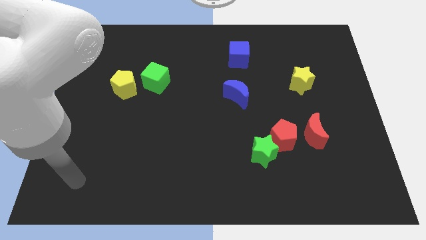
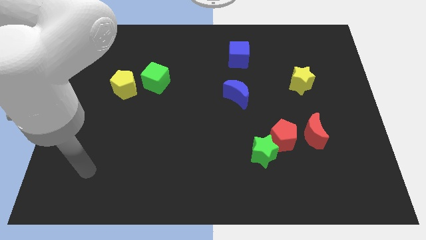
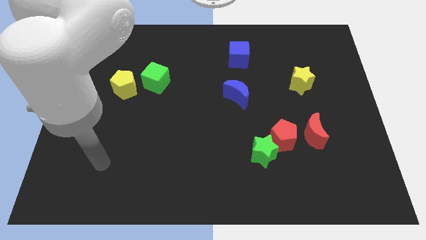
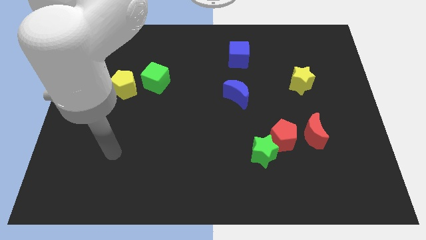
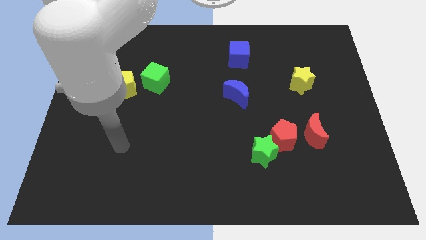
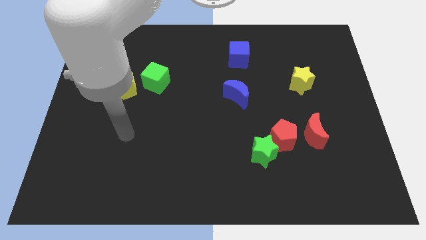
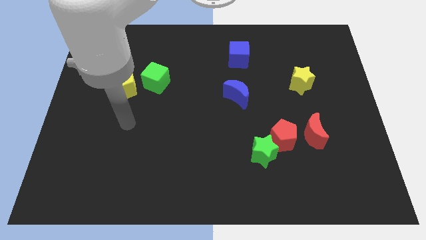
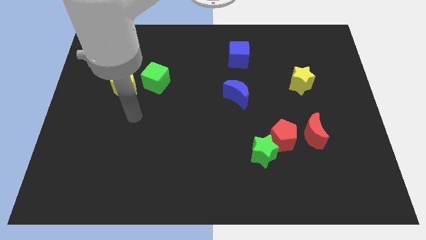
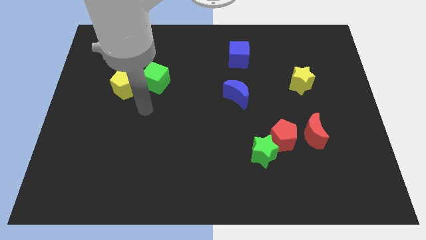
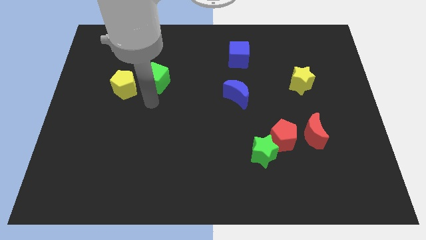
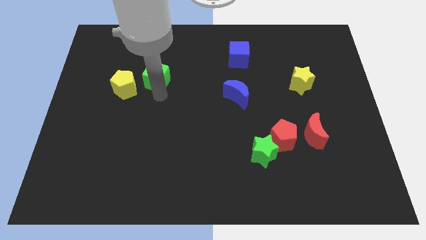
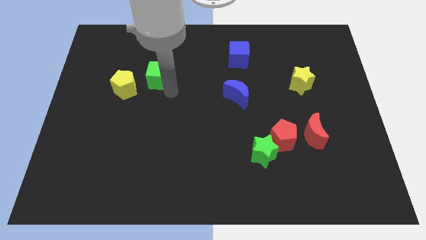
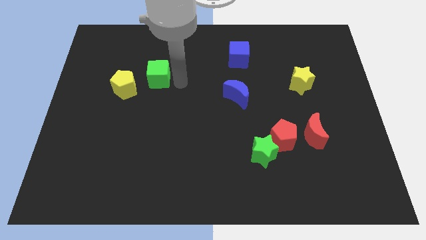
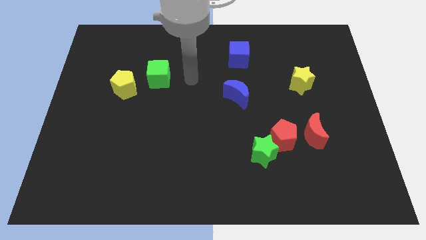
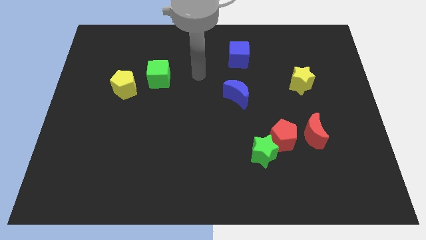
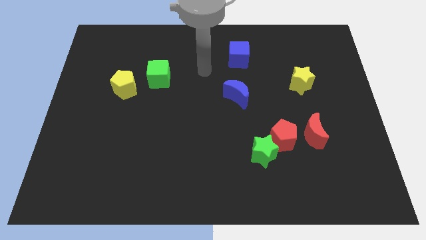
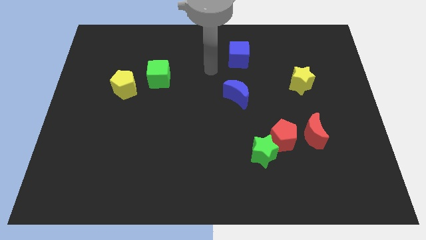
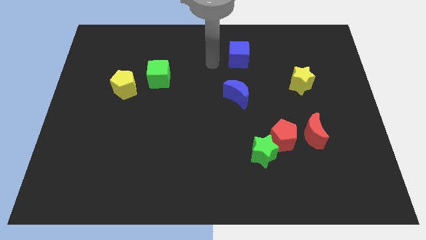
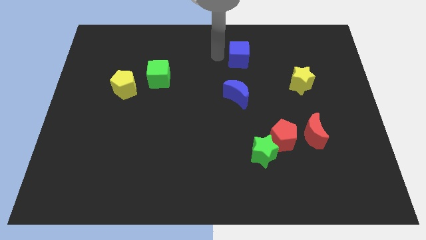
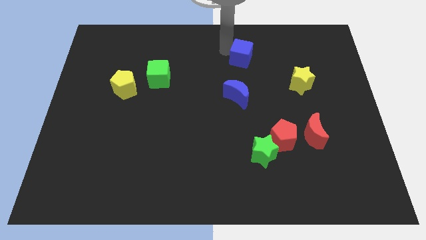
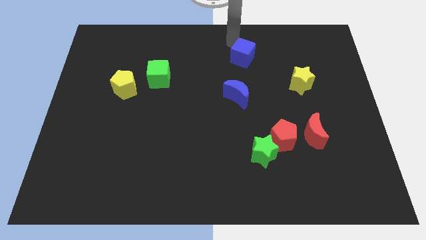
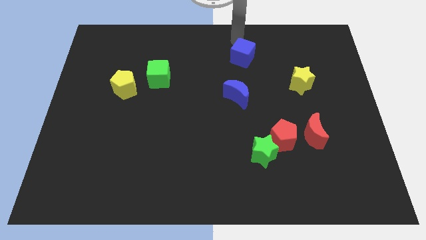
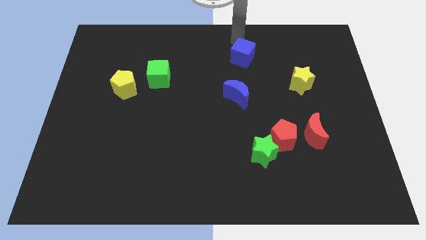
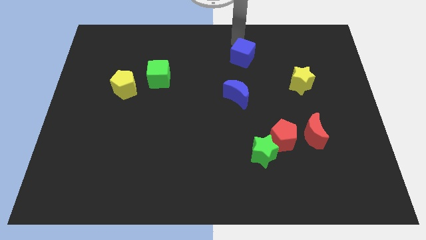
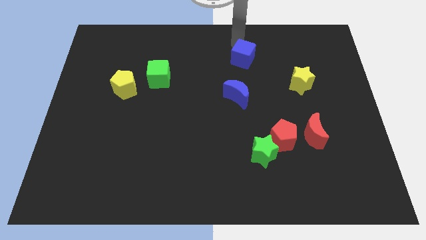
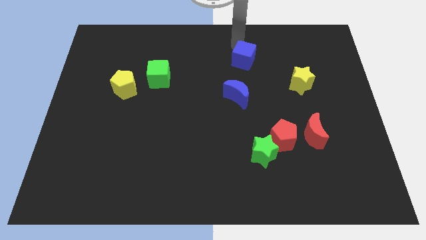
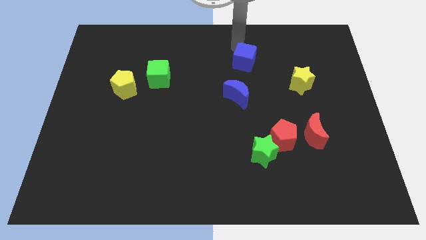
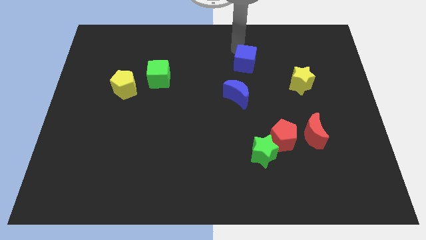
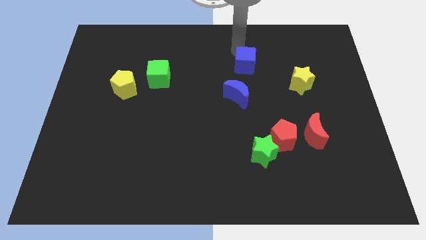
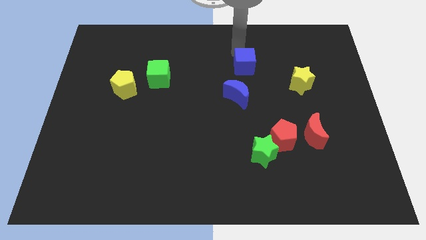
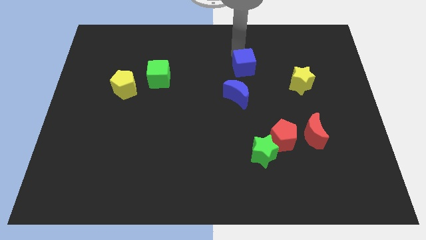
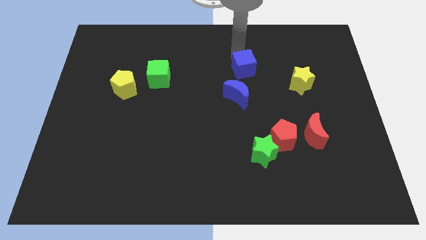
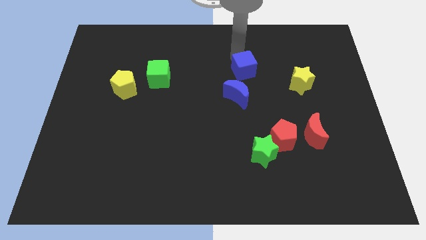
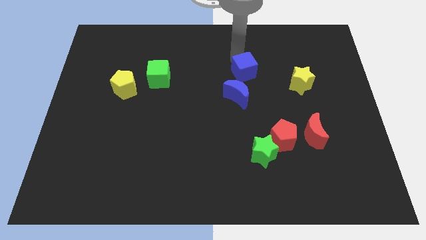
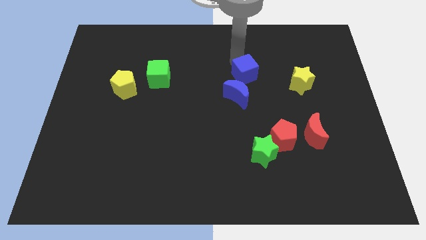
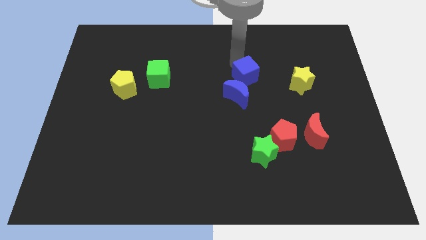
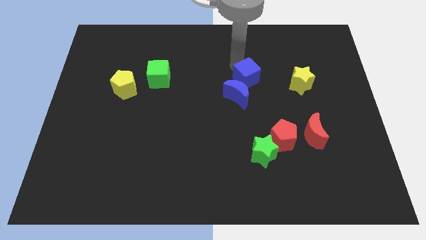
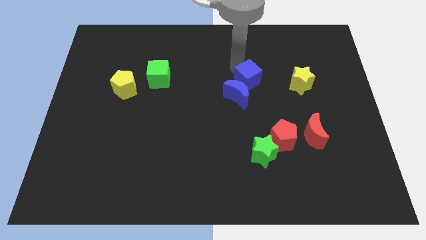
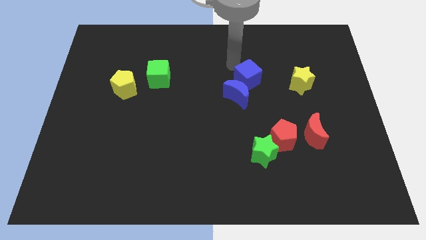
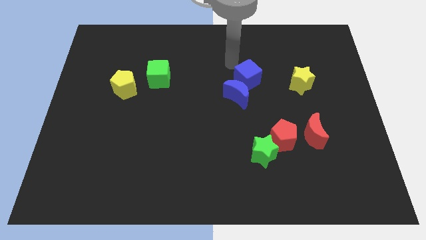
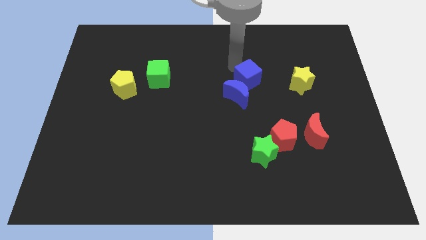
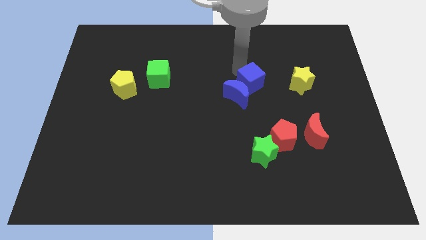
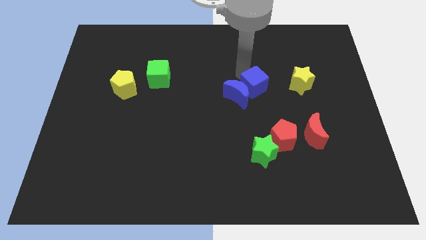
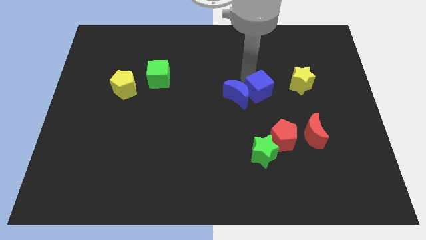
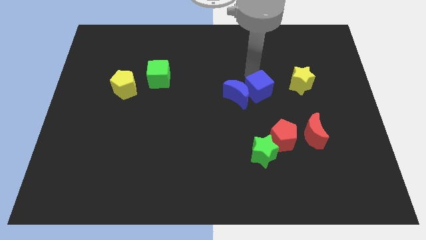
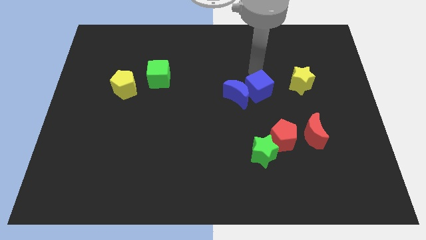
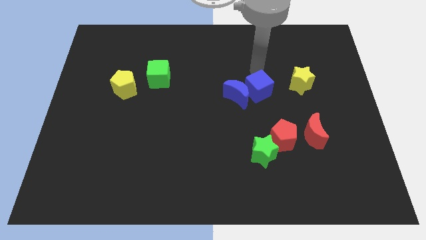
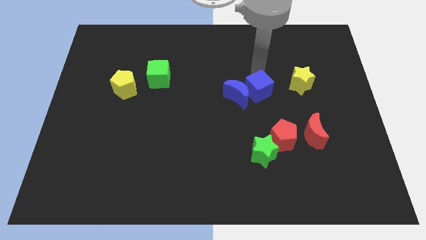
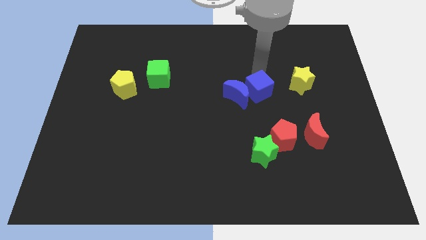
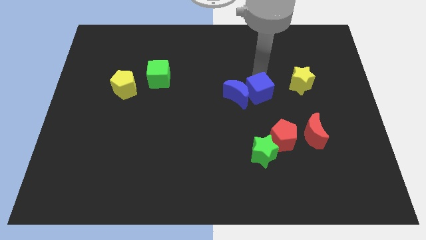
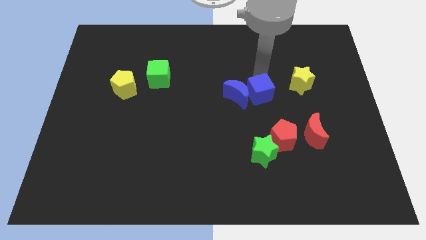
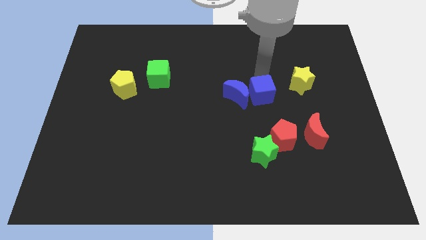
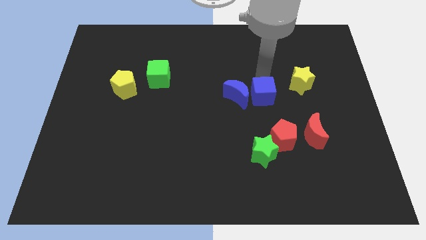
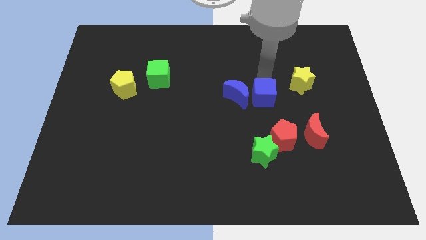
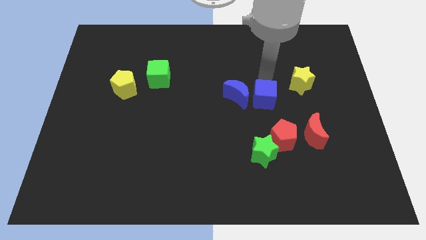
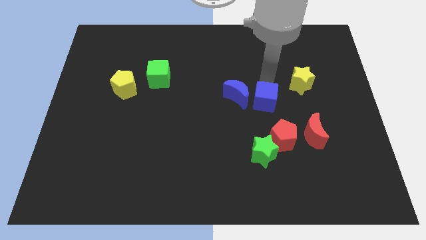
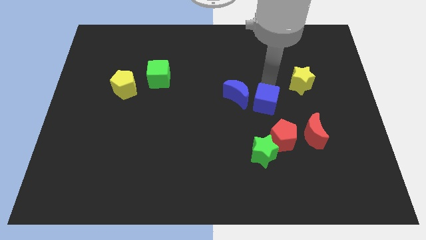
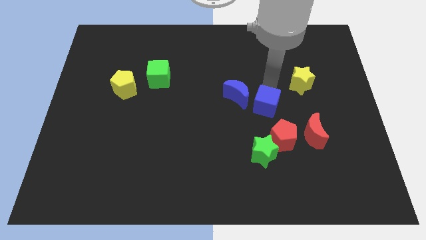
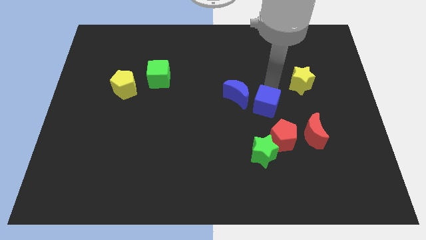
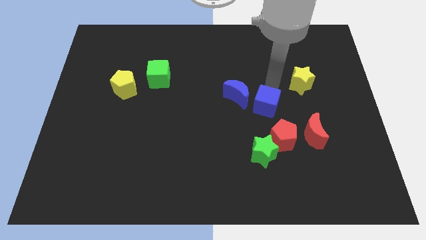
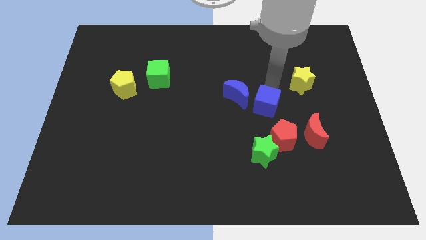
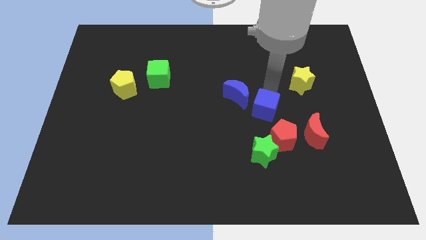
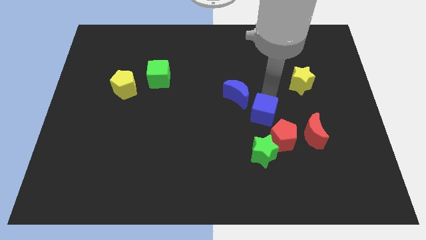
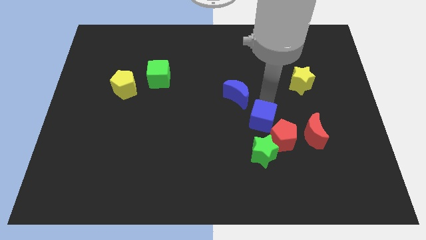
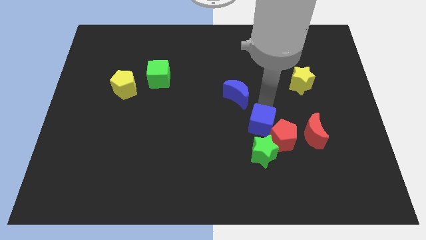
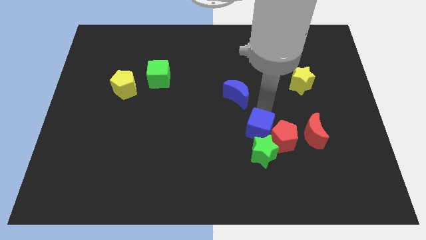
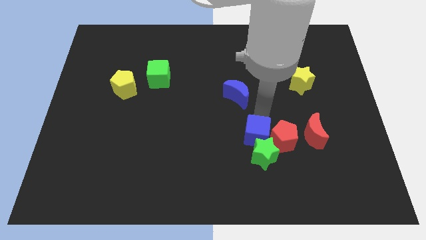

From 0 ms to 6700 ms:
move the blue cube close to the green star

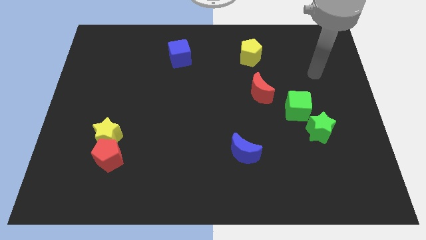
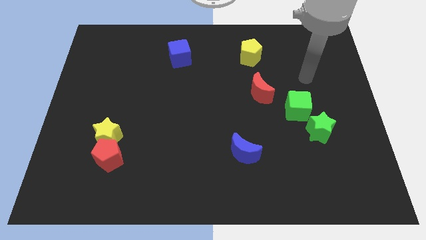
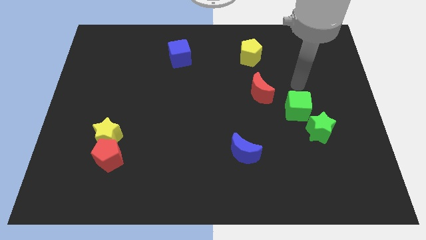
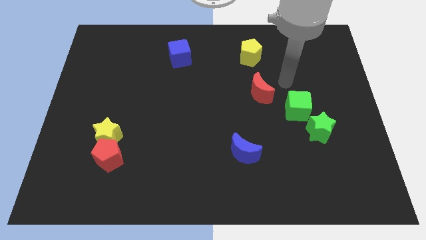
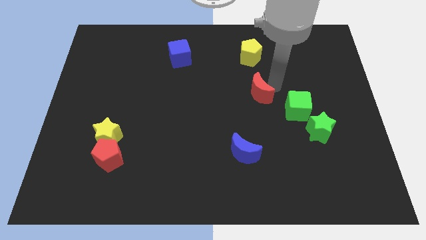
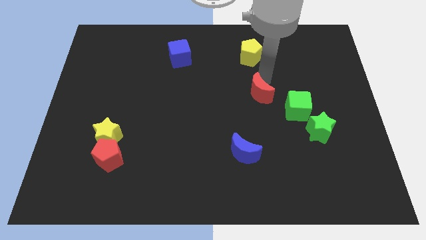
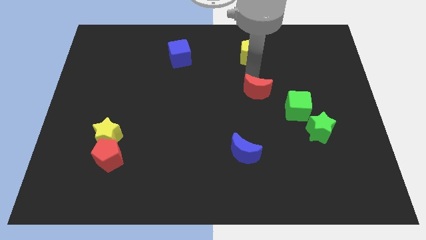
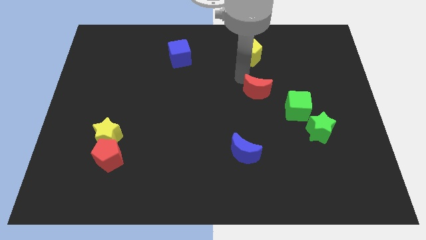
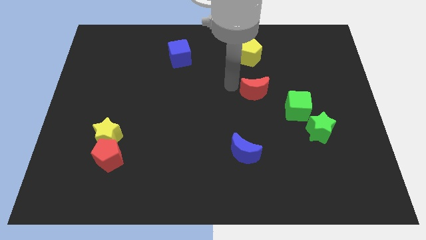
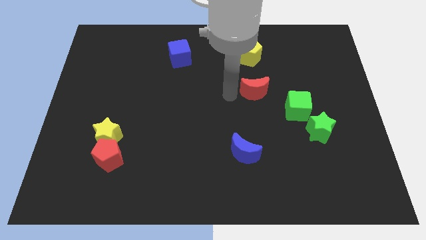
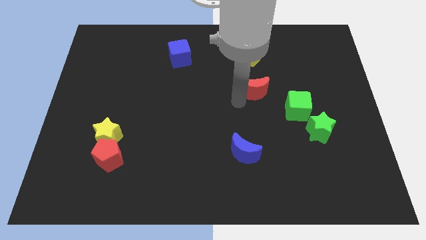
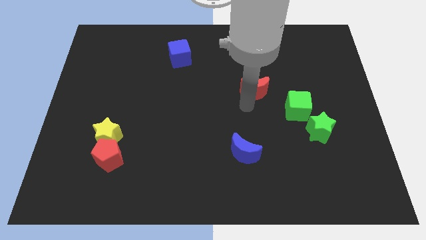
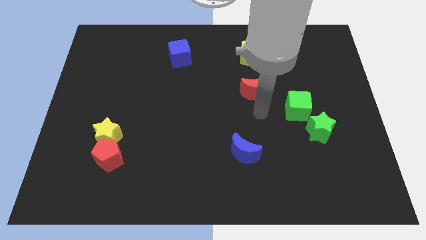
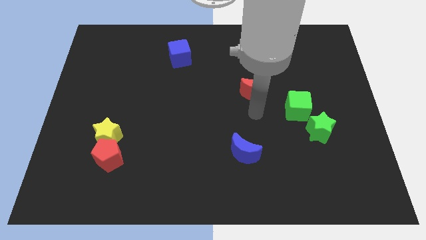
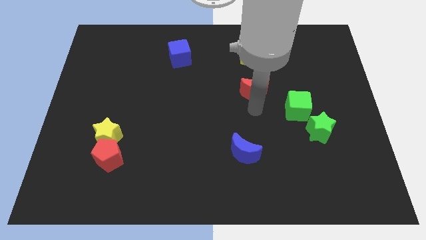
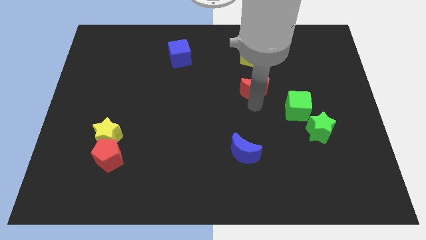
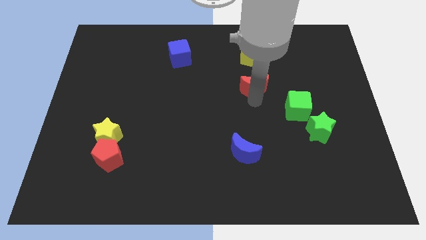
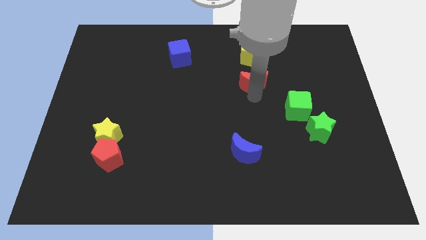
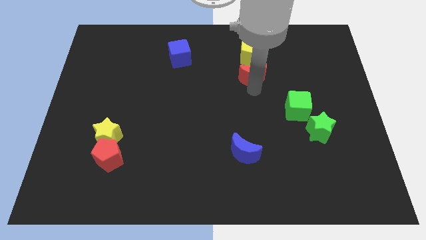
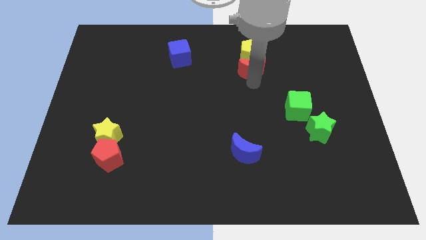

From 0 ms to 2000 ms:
slide the red moon close to the yellow pentagon
